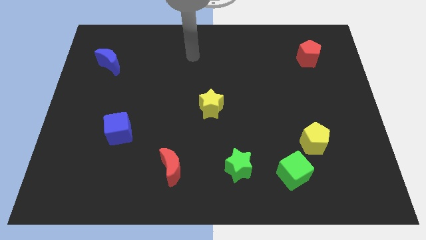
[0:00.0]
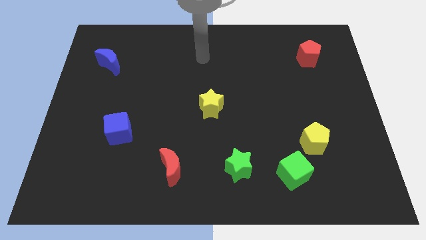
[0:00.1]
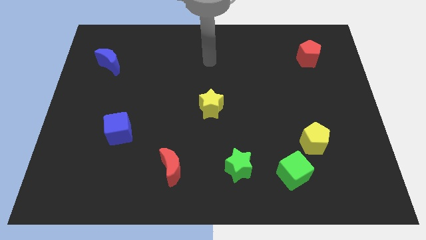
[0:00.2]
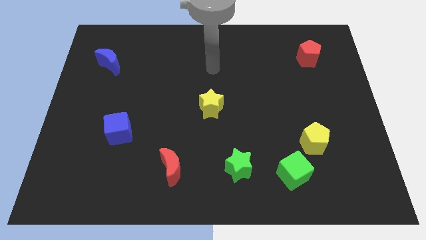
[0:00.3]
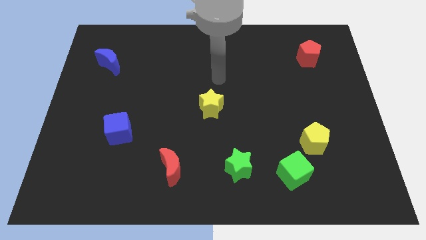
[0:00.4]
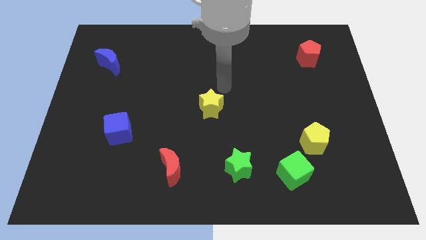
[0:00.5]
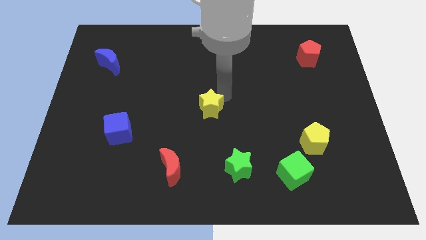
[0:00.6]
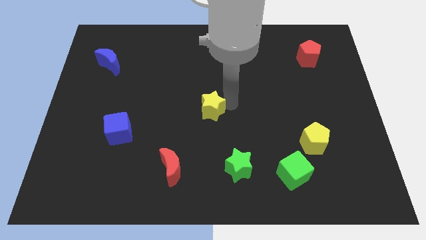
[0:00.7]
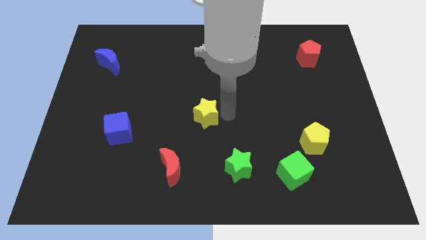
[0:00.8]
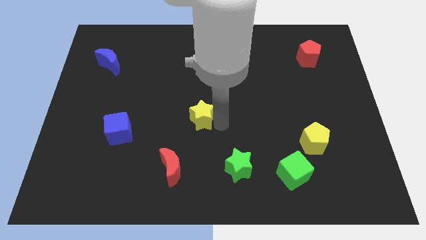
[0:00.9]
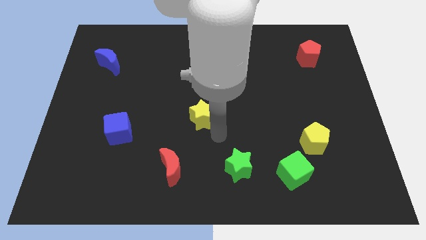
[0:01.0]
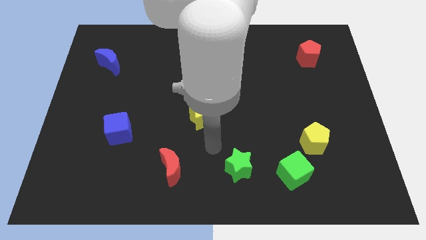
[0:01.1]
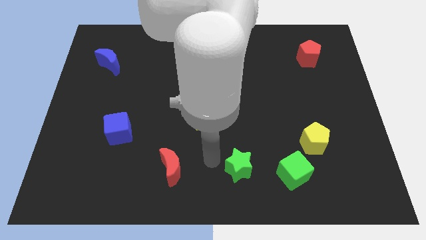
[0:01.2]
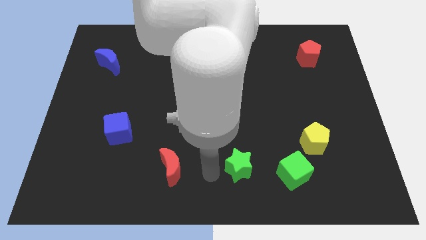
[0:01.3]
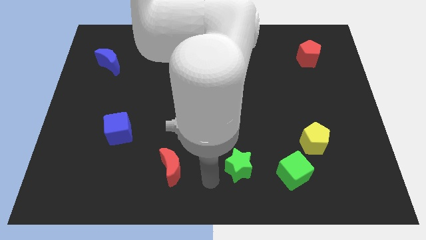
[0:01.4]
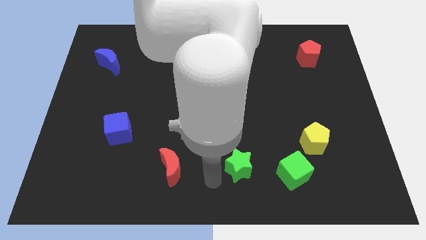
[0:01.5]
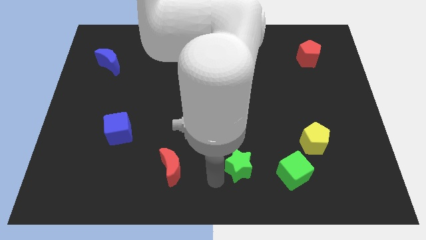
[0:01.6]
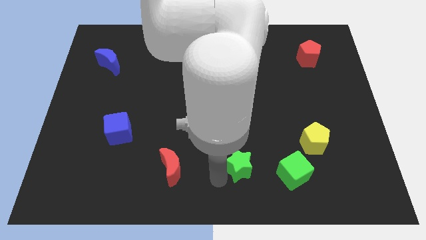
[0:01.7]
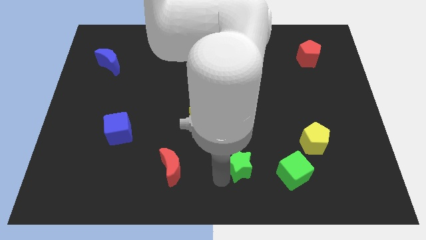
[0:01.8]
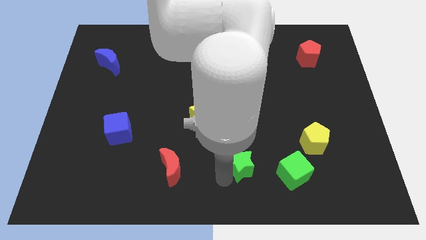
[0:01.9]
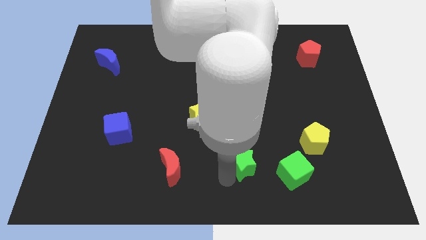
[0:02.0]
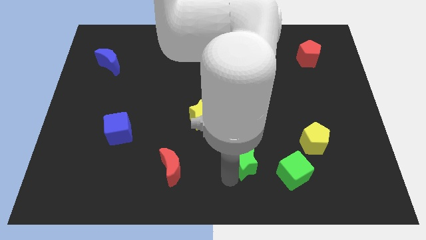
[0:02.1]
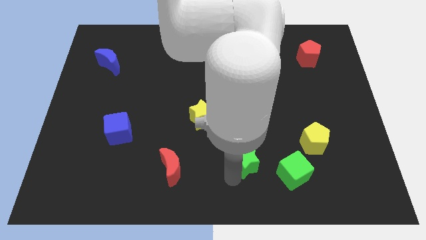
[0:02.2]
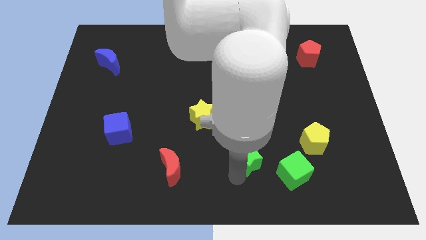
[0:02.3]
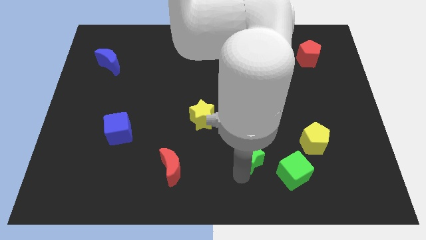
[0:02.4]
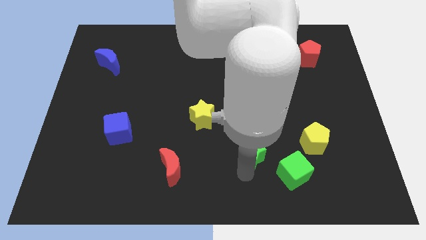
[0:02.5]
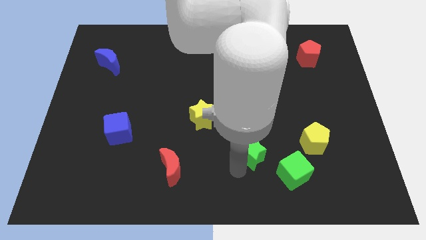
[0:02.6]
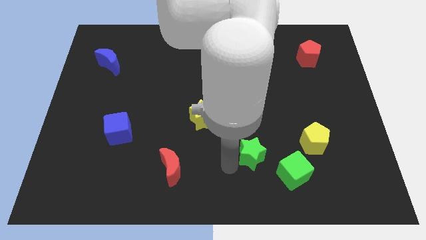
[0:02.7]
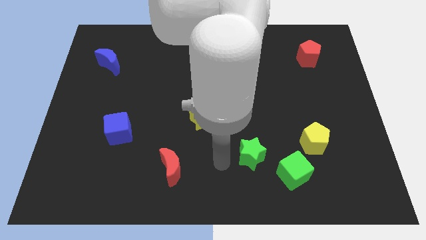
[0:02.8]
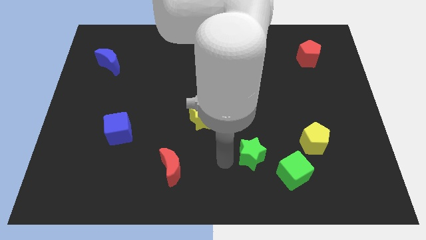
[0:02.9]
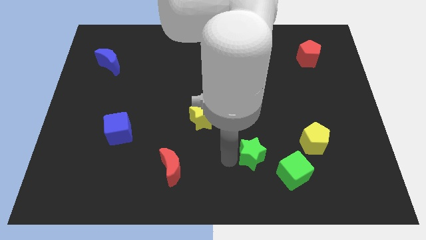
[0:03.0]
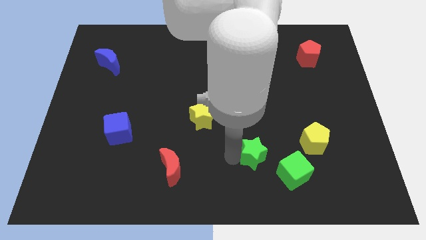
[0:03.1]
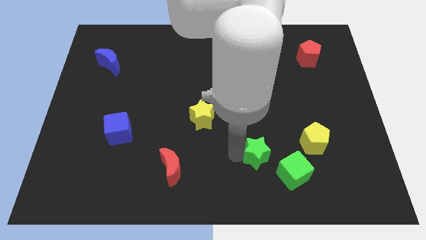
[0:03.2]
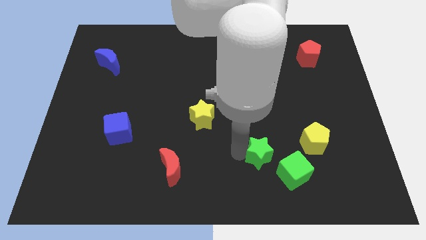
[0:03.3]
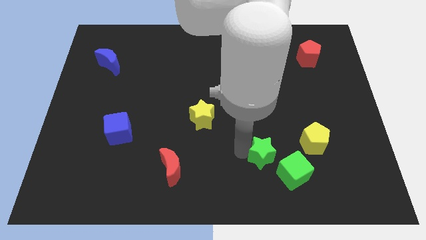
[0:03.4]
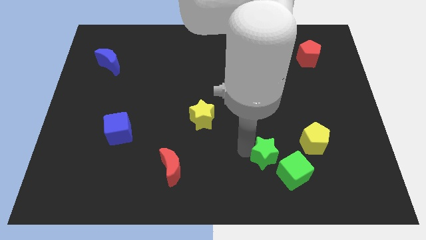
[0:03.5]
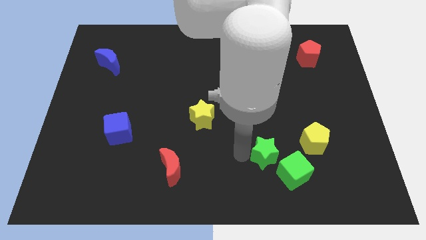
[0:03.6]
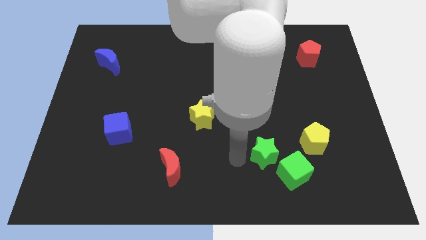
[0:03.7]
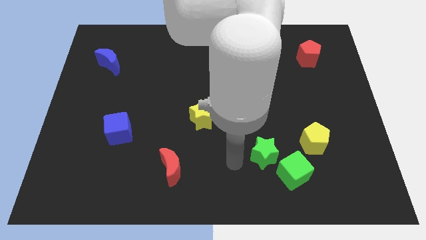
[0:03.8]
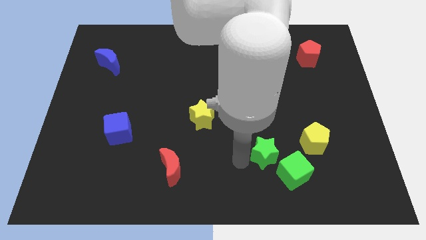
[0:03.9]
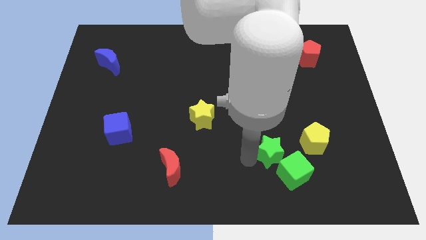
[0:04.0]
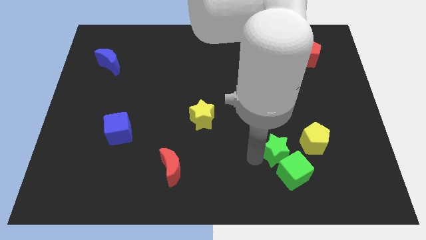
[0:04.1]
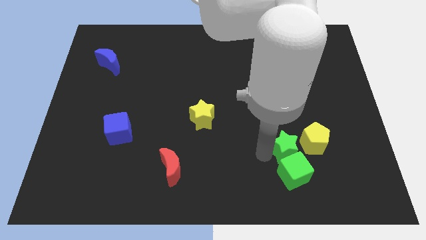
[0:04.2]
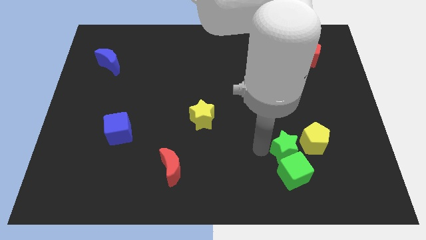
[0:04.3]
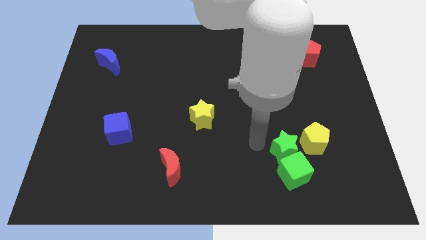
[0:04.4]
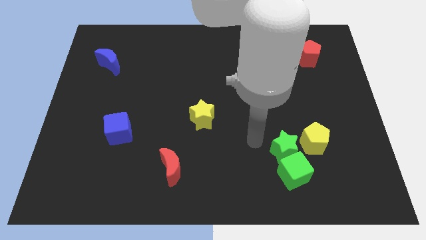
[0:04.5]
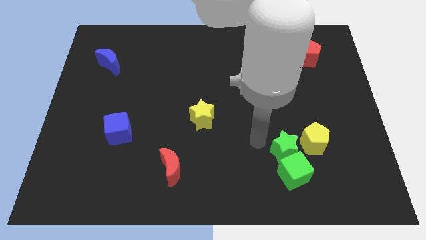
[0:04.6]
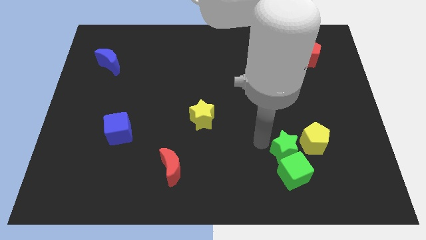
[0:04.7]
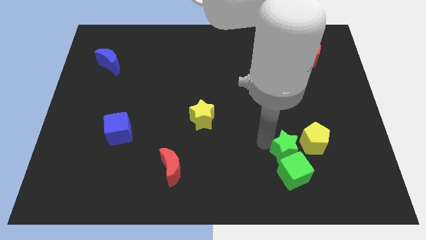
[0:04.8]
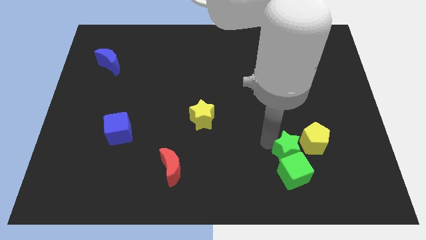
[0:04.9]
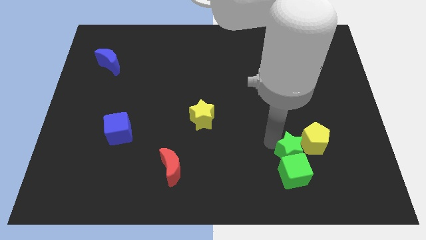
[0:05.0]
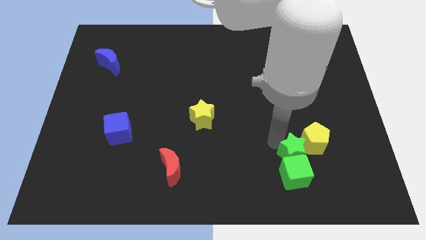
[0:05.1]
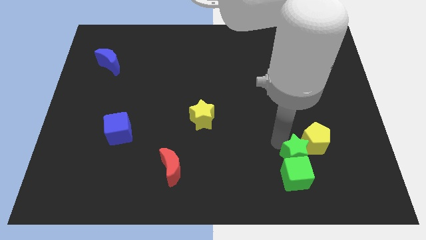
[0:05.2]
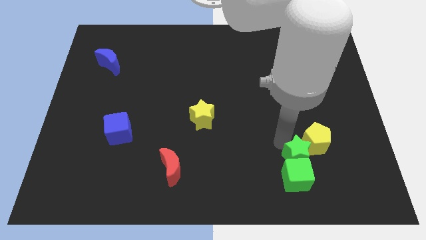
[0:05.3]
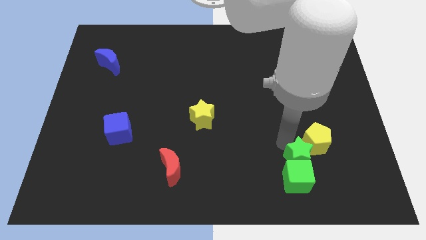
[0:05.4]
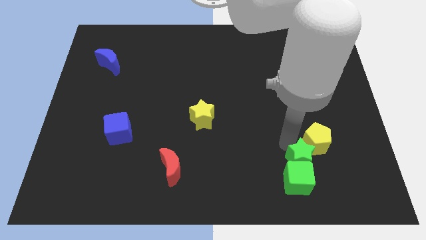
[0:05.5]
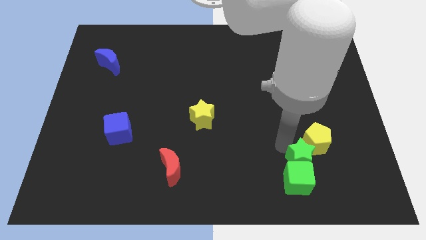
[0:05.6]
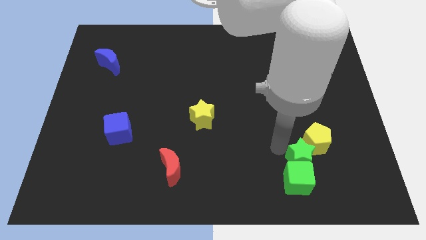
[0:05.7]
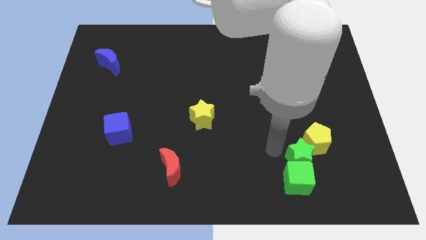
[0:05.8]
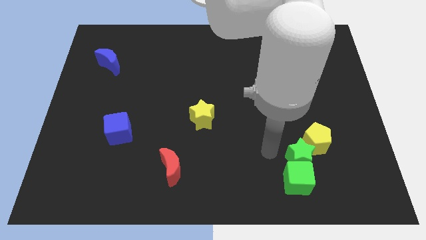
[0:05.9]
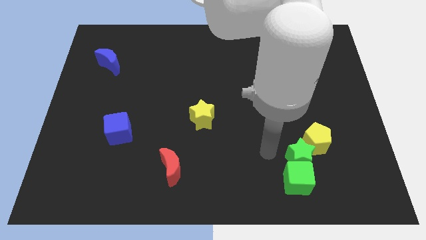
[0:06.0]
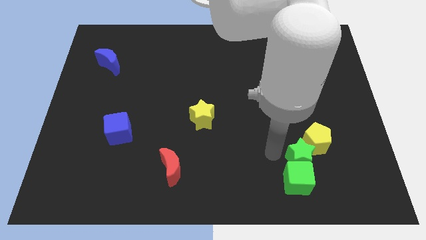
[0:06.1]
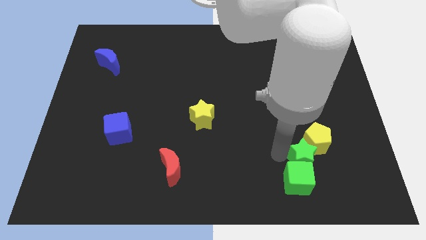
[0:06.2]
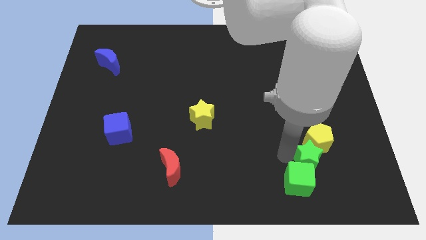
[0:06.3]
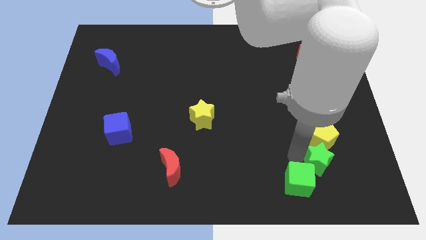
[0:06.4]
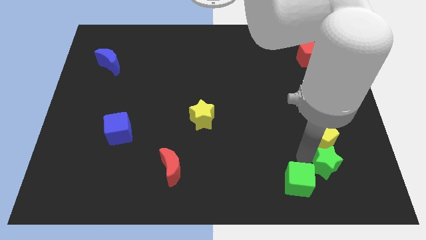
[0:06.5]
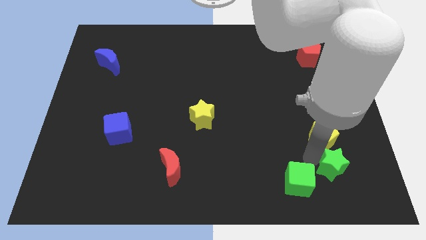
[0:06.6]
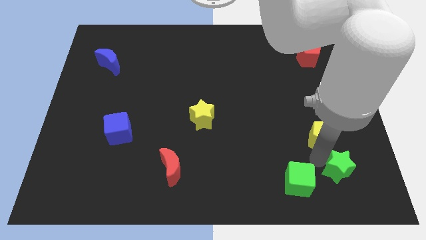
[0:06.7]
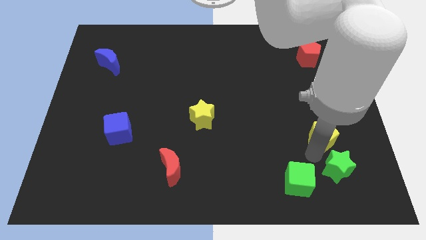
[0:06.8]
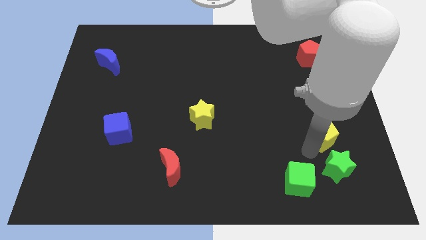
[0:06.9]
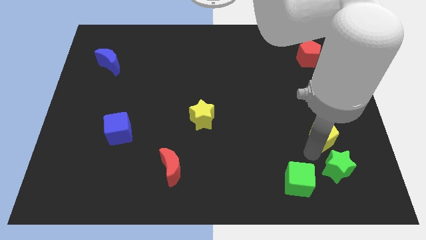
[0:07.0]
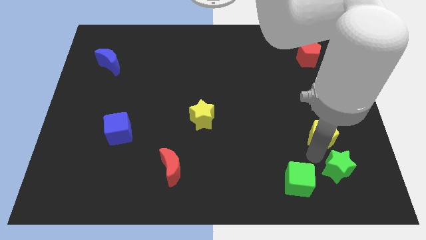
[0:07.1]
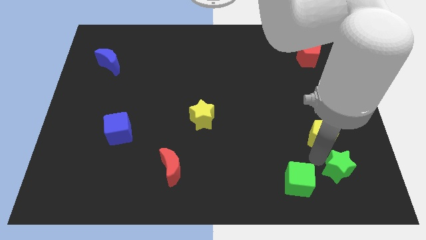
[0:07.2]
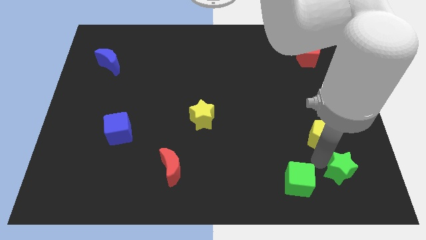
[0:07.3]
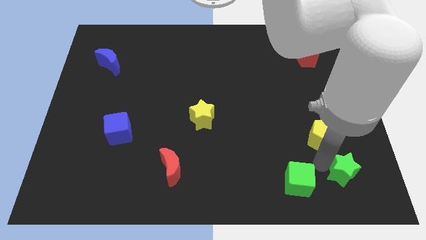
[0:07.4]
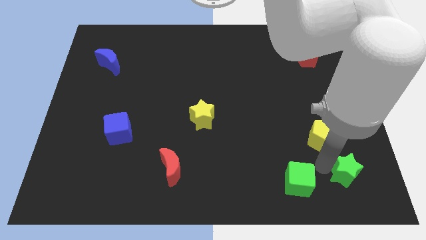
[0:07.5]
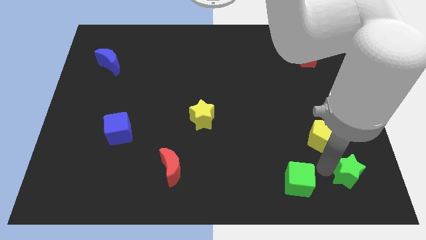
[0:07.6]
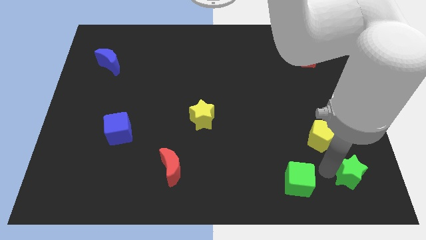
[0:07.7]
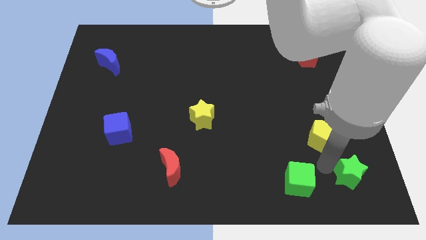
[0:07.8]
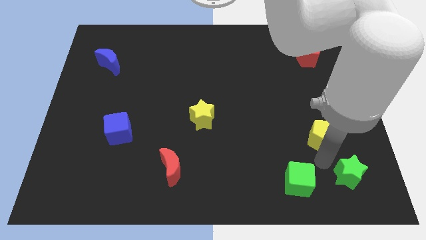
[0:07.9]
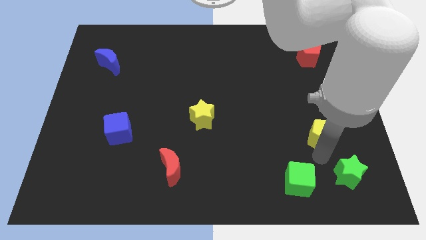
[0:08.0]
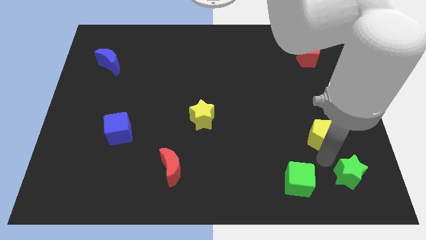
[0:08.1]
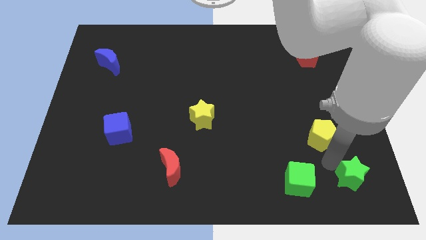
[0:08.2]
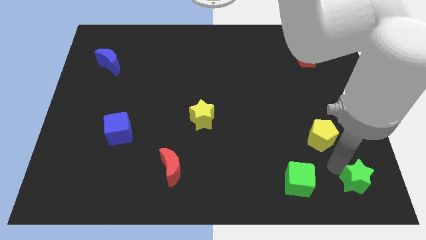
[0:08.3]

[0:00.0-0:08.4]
push the green star to the lower right corner
